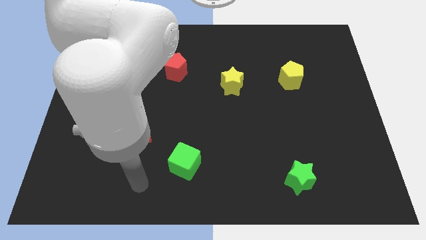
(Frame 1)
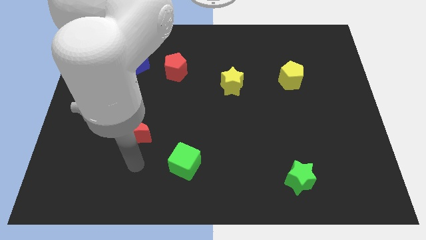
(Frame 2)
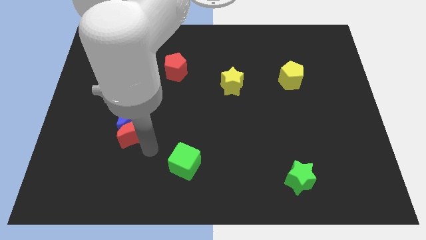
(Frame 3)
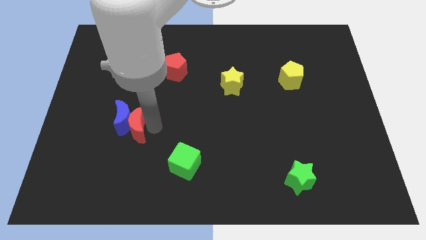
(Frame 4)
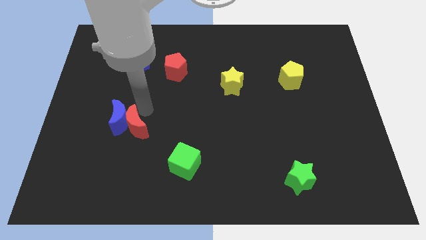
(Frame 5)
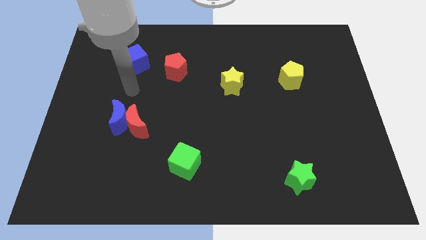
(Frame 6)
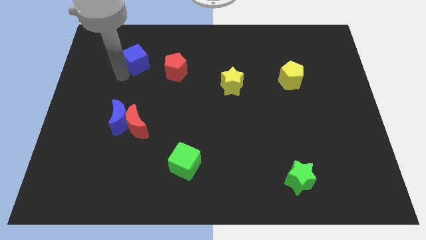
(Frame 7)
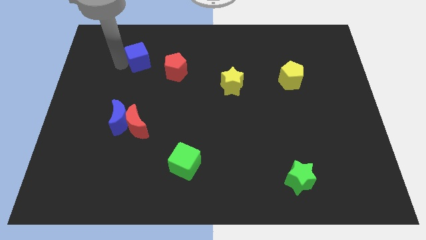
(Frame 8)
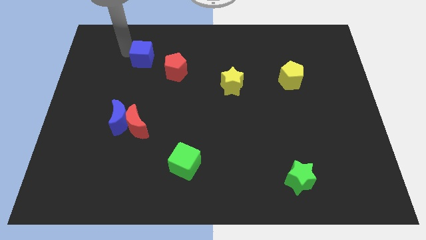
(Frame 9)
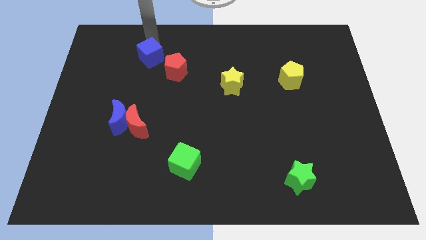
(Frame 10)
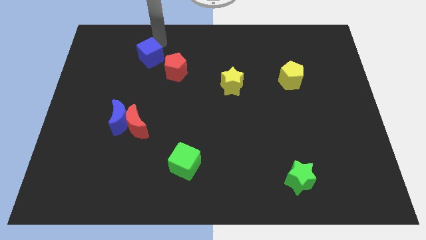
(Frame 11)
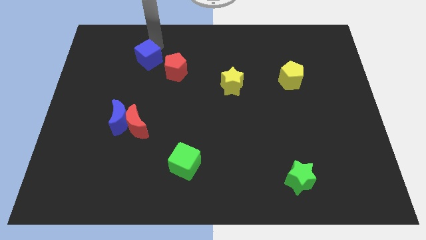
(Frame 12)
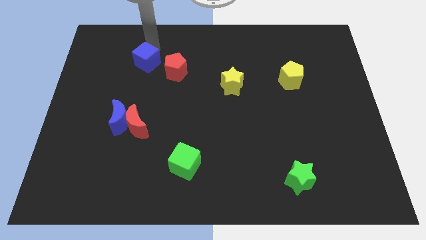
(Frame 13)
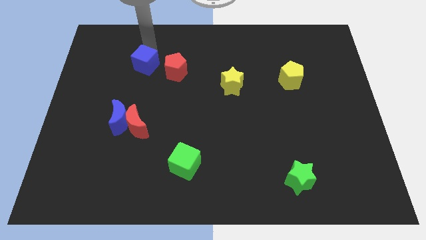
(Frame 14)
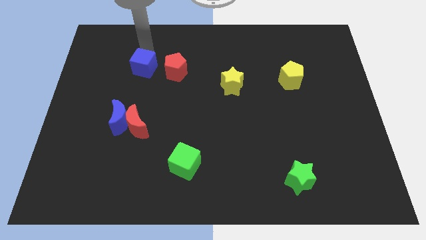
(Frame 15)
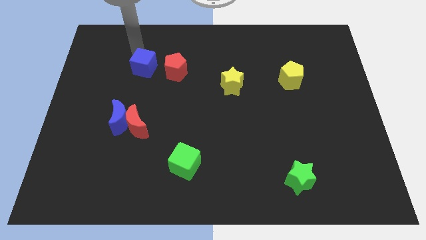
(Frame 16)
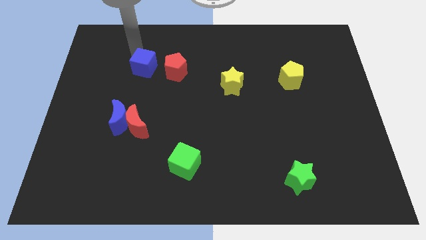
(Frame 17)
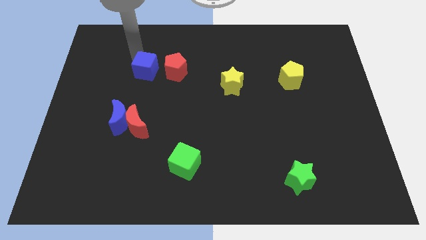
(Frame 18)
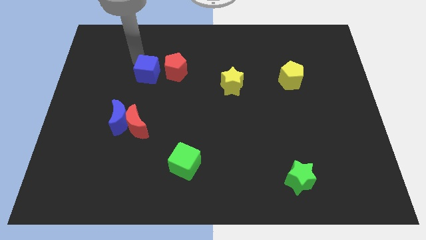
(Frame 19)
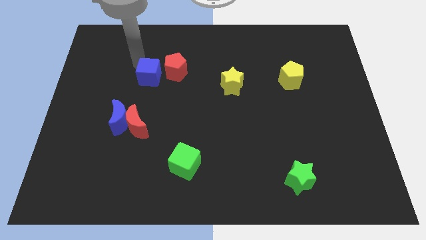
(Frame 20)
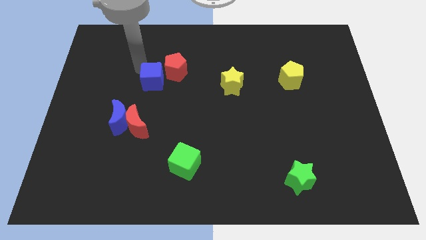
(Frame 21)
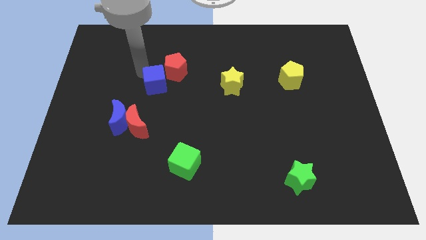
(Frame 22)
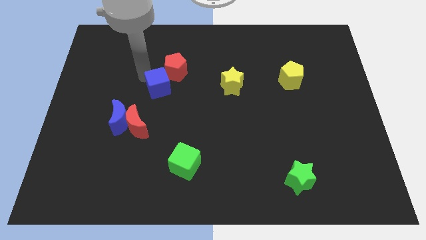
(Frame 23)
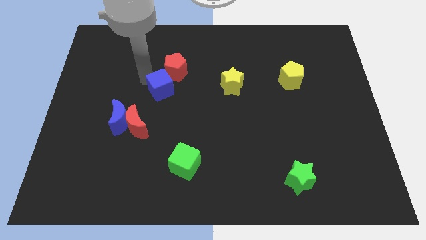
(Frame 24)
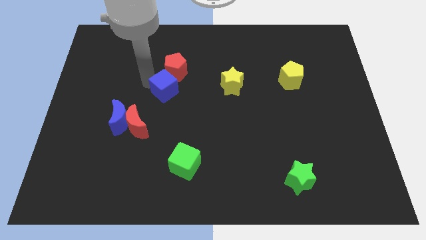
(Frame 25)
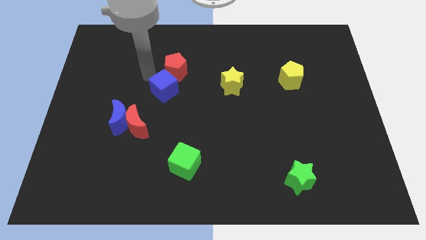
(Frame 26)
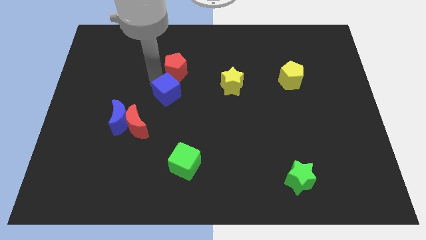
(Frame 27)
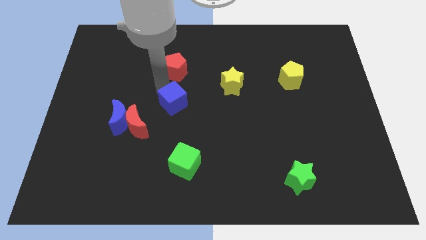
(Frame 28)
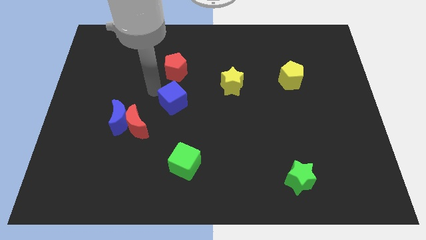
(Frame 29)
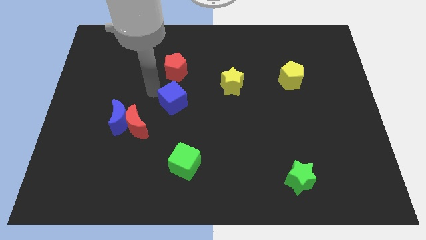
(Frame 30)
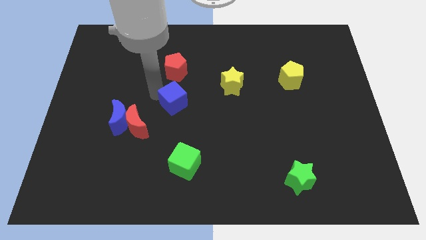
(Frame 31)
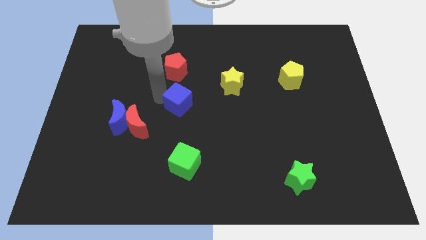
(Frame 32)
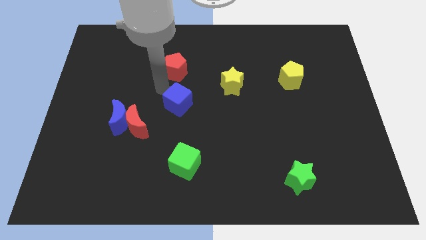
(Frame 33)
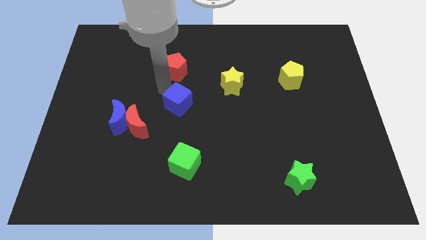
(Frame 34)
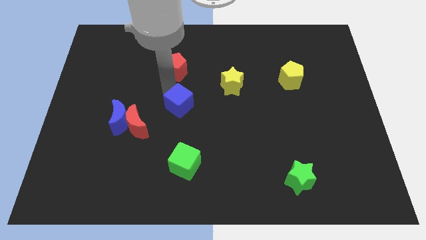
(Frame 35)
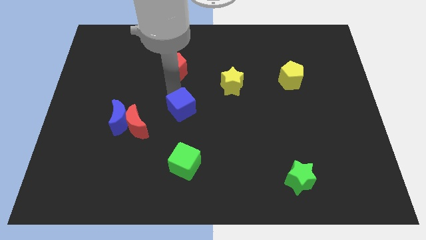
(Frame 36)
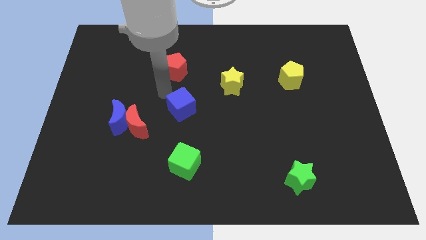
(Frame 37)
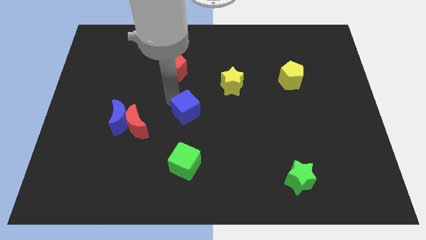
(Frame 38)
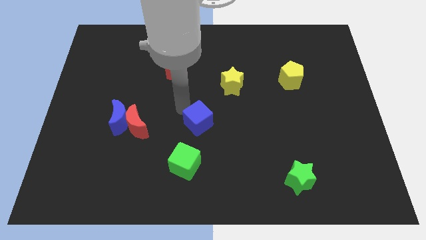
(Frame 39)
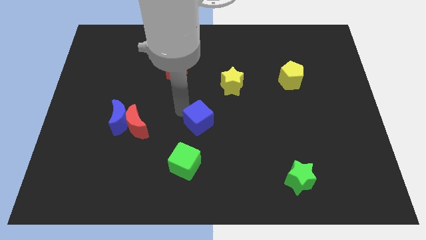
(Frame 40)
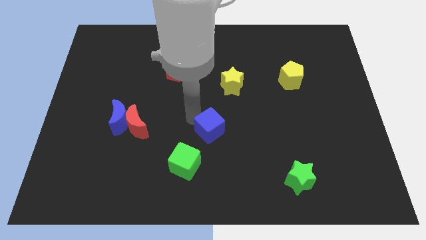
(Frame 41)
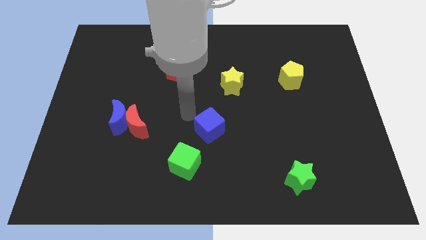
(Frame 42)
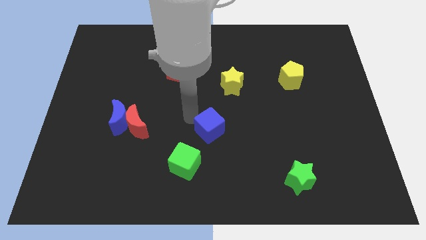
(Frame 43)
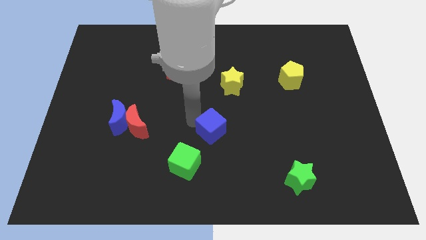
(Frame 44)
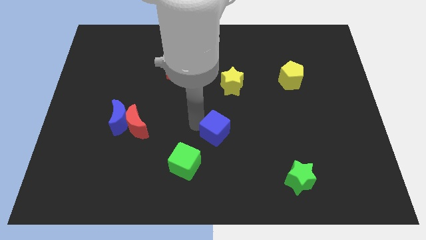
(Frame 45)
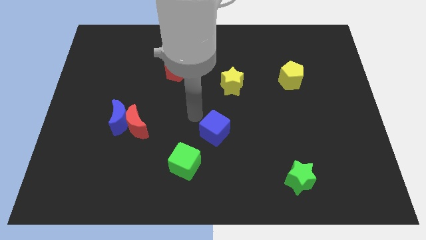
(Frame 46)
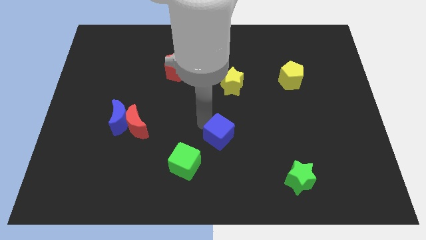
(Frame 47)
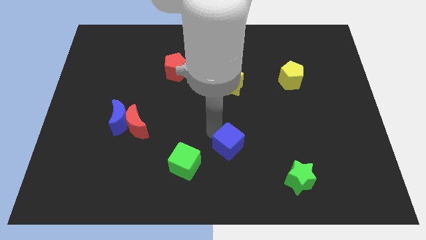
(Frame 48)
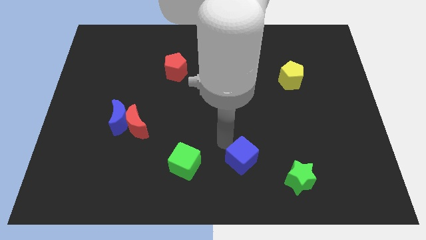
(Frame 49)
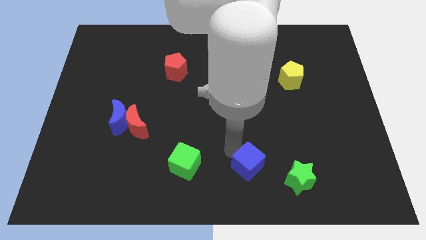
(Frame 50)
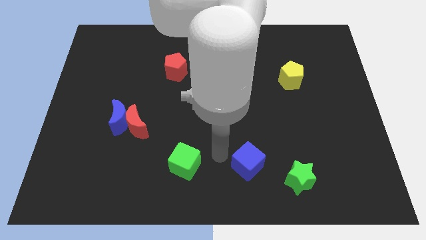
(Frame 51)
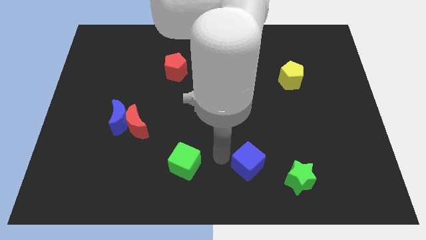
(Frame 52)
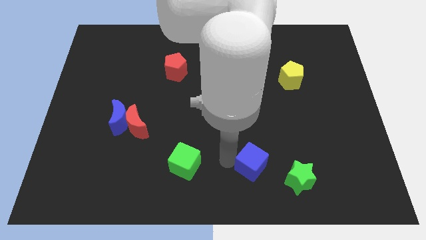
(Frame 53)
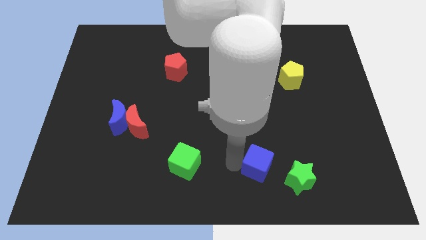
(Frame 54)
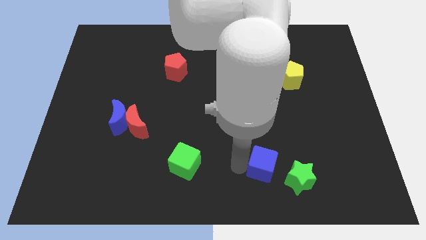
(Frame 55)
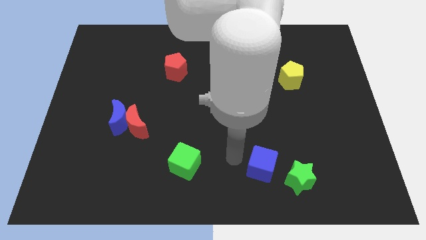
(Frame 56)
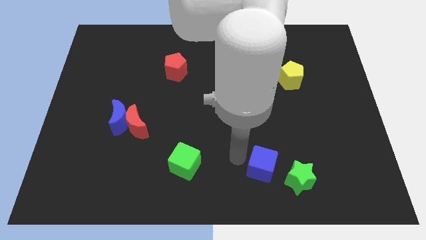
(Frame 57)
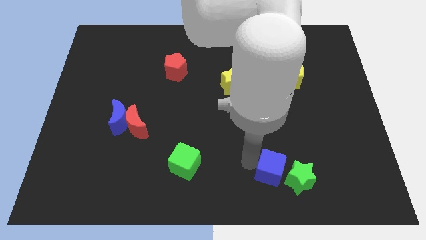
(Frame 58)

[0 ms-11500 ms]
put the blue cube to the green star

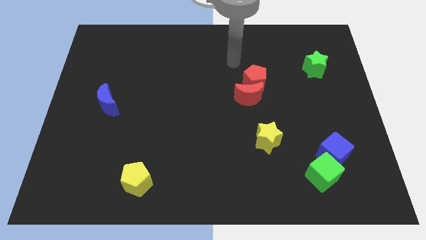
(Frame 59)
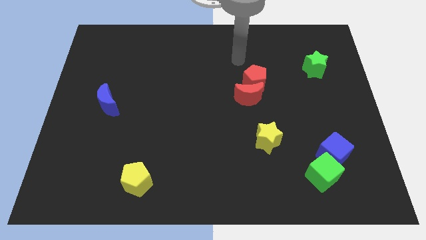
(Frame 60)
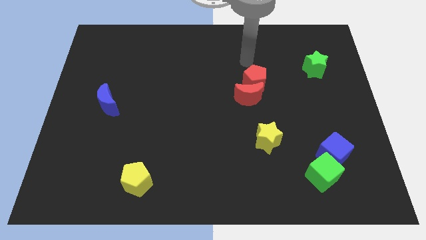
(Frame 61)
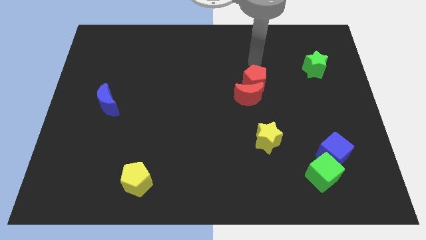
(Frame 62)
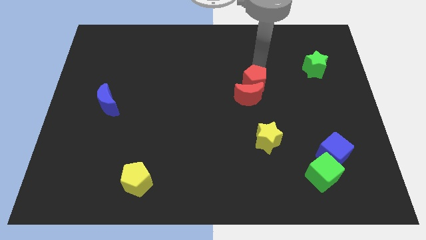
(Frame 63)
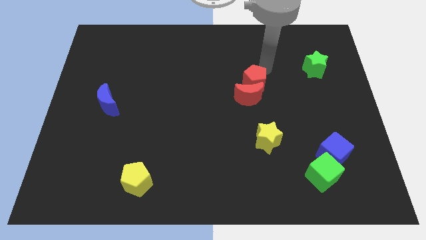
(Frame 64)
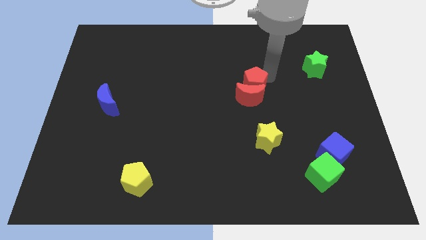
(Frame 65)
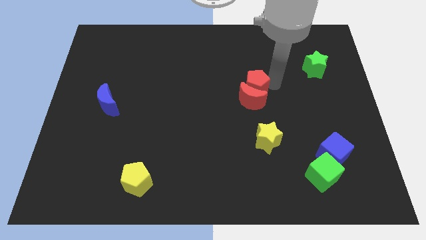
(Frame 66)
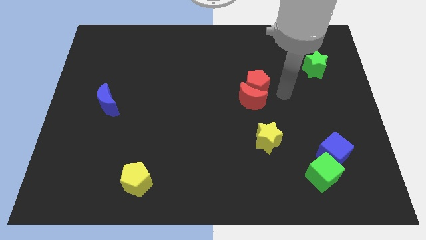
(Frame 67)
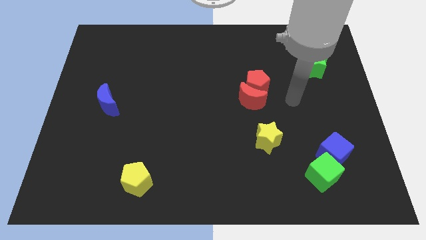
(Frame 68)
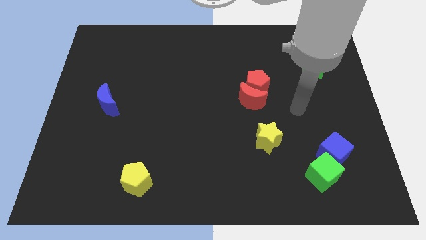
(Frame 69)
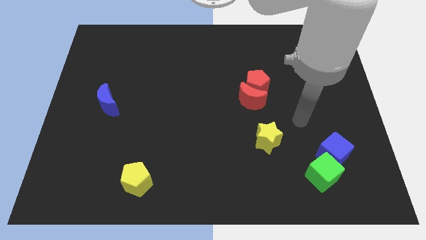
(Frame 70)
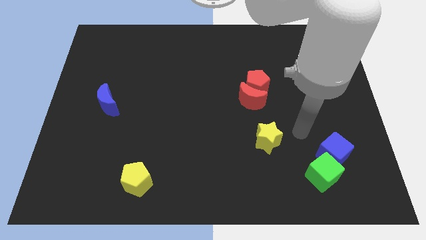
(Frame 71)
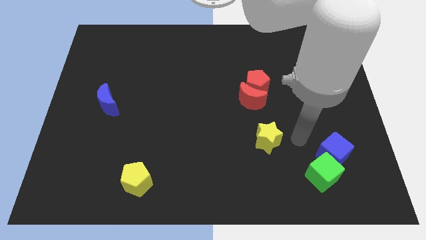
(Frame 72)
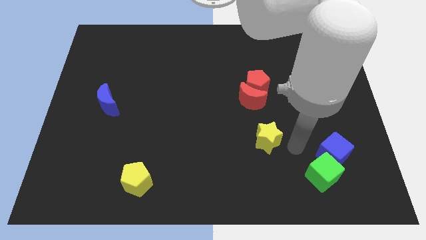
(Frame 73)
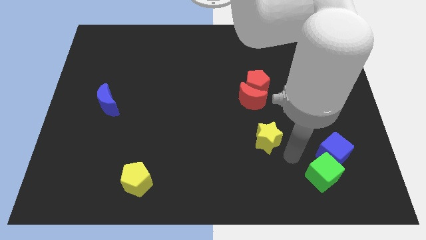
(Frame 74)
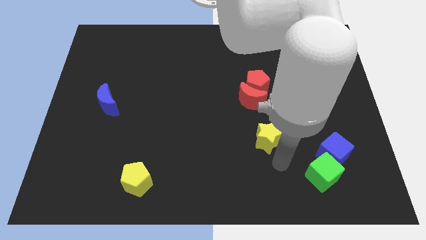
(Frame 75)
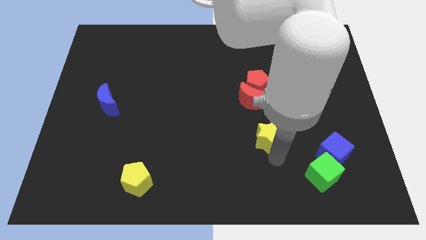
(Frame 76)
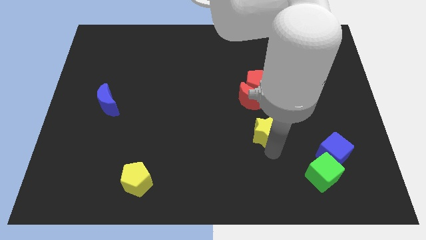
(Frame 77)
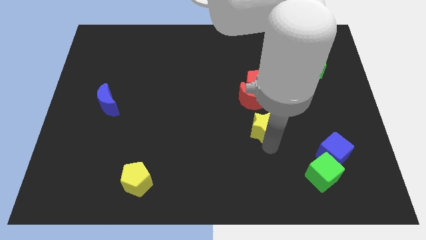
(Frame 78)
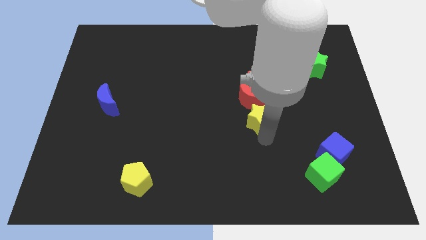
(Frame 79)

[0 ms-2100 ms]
put the yellow star to the red moon
